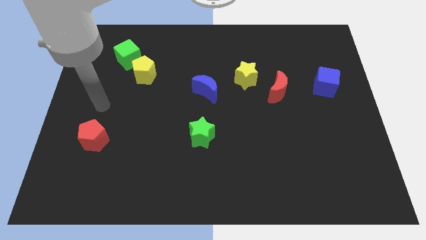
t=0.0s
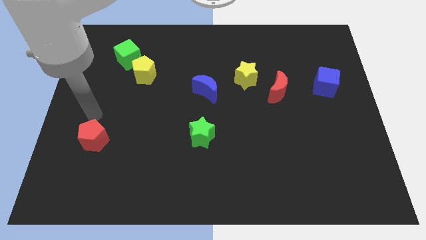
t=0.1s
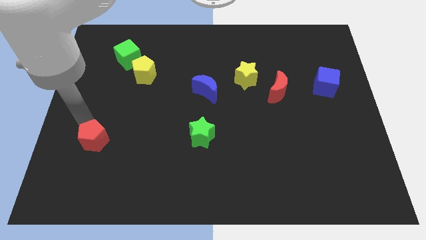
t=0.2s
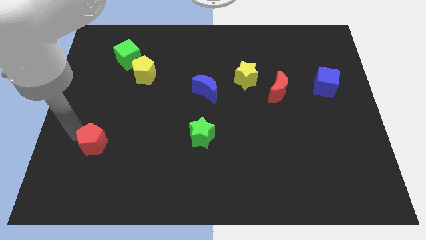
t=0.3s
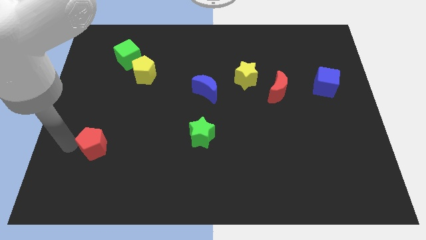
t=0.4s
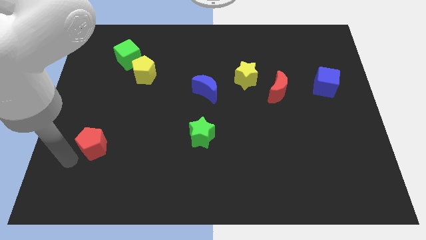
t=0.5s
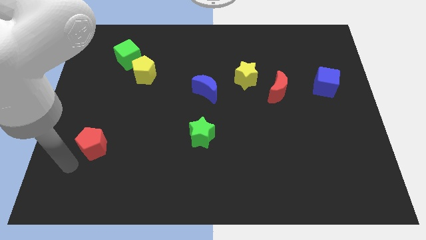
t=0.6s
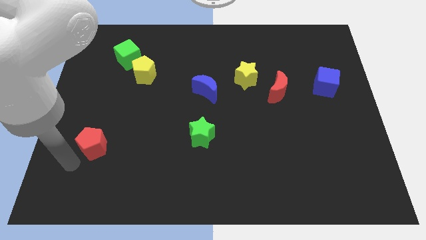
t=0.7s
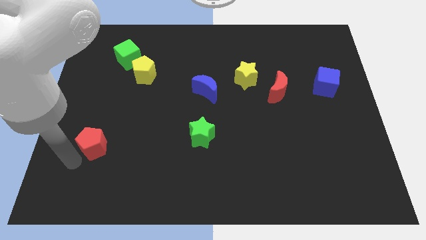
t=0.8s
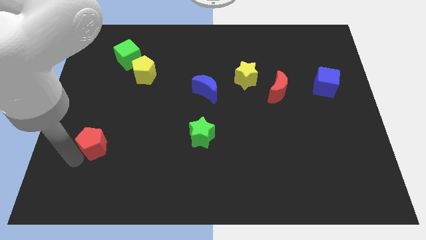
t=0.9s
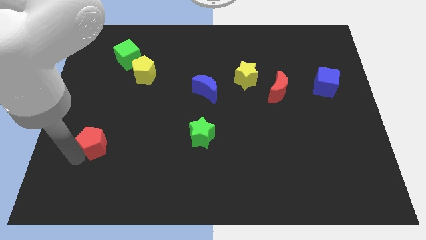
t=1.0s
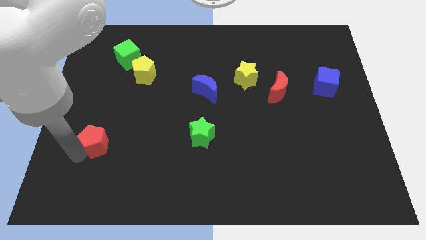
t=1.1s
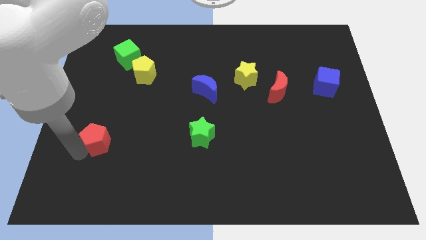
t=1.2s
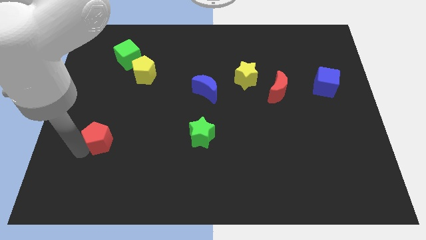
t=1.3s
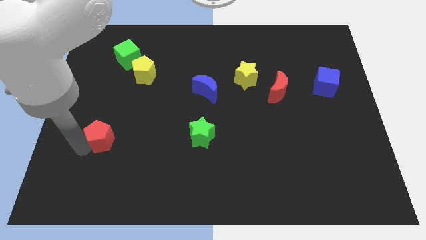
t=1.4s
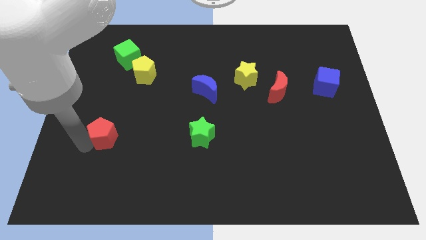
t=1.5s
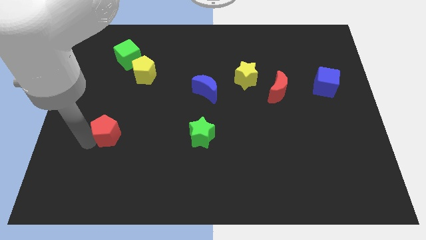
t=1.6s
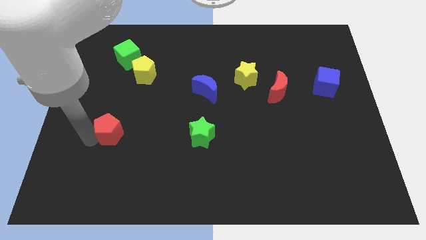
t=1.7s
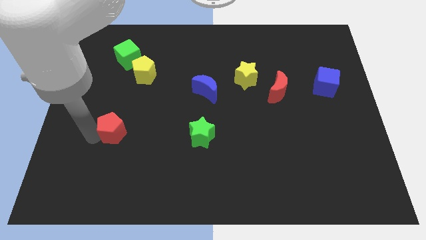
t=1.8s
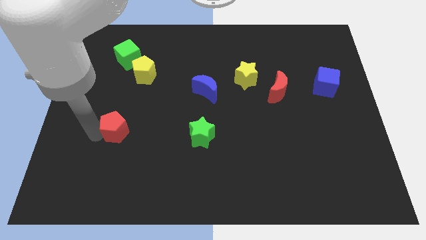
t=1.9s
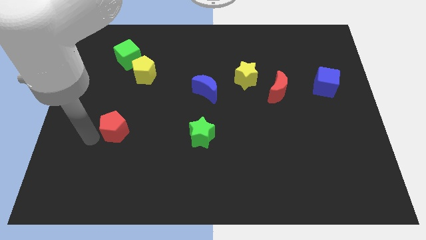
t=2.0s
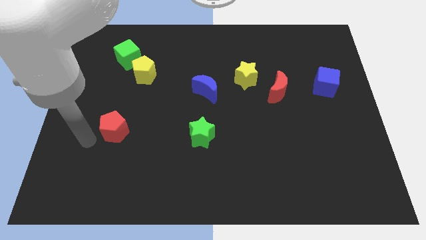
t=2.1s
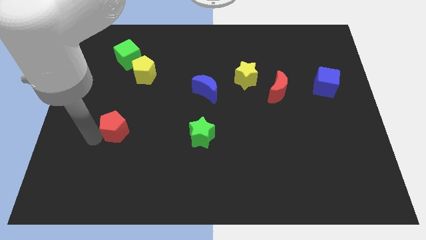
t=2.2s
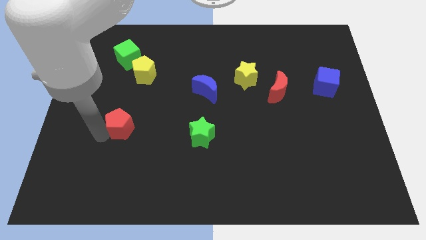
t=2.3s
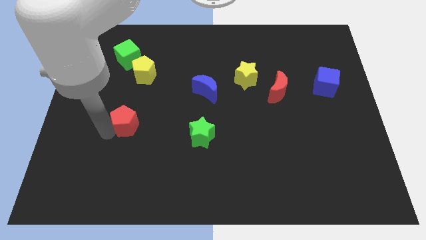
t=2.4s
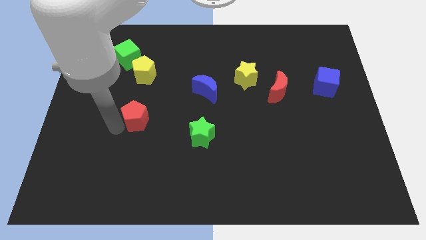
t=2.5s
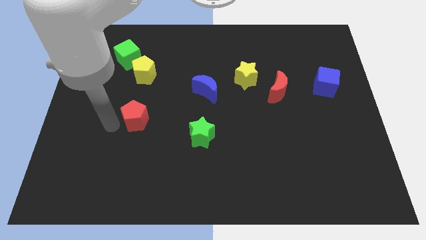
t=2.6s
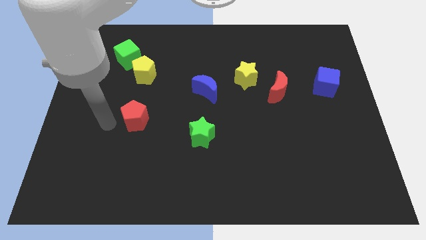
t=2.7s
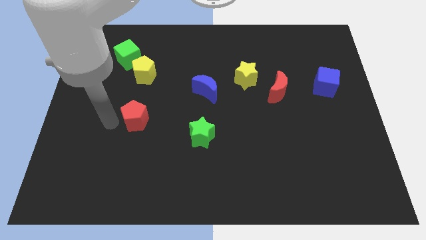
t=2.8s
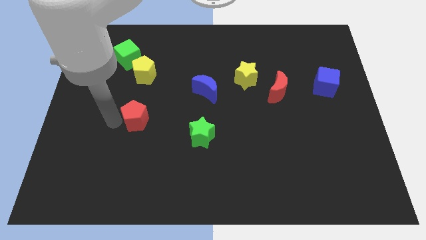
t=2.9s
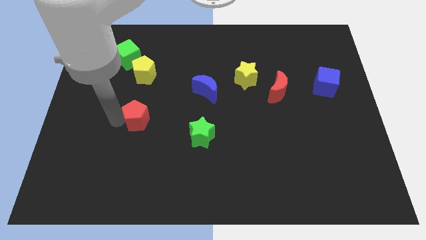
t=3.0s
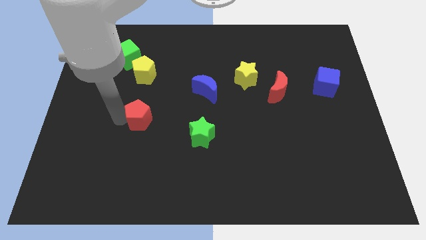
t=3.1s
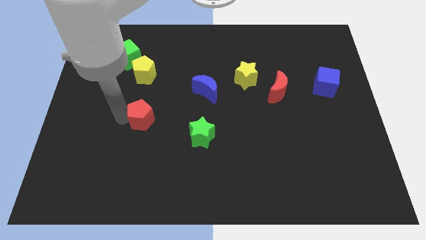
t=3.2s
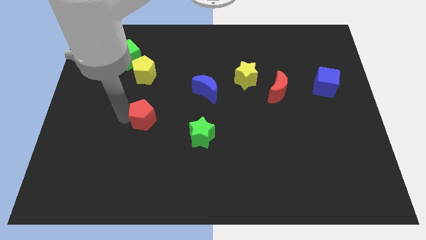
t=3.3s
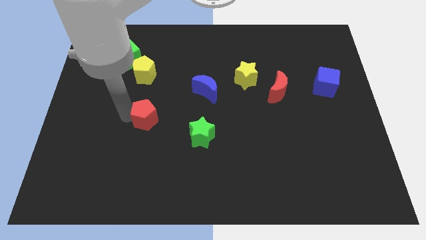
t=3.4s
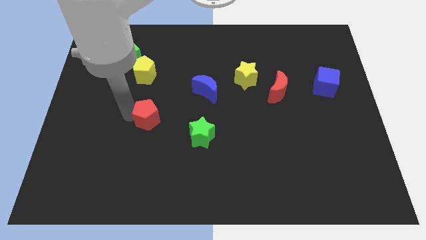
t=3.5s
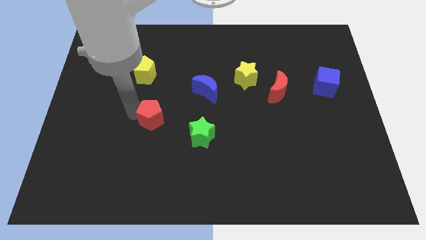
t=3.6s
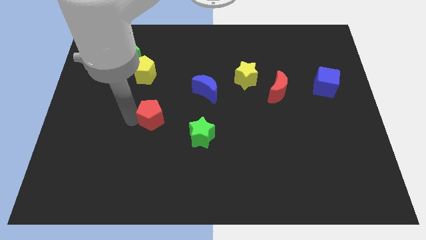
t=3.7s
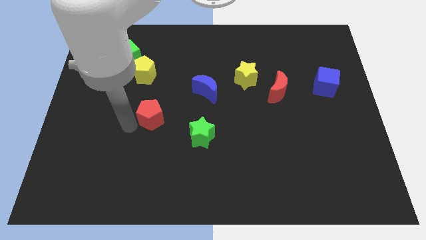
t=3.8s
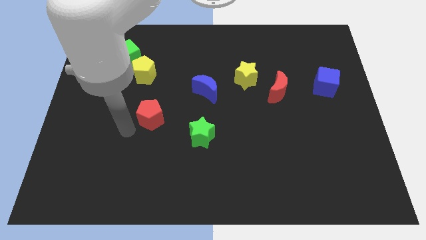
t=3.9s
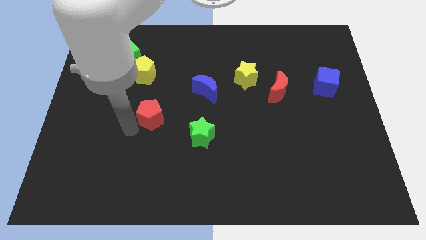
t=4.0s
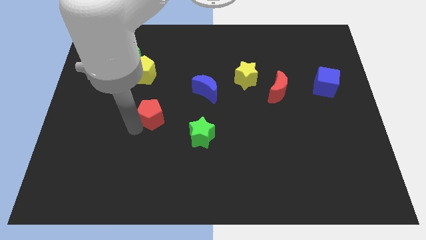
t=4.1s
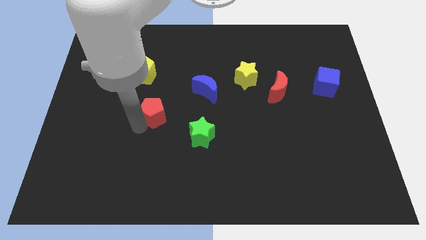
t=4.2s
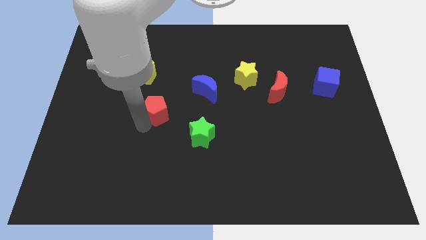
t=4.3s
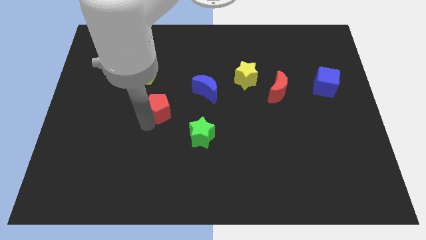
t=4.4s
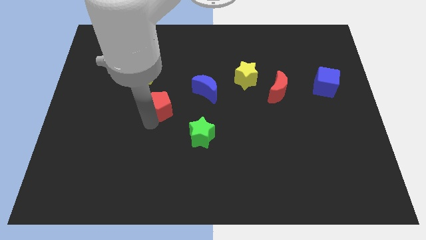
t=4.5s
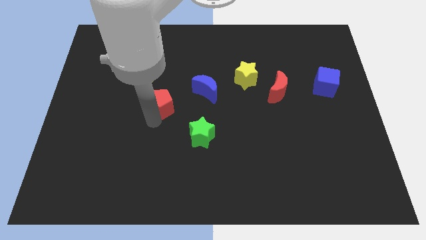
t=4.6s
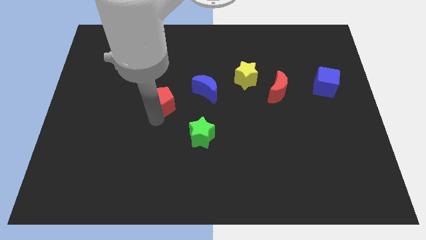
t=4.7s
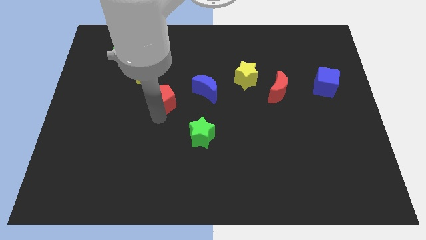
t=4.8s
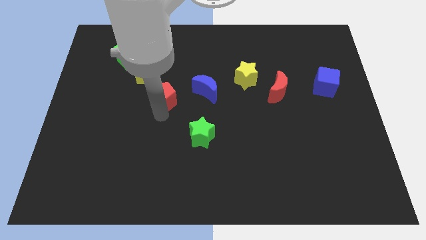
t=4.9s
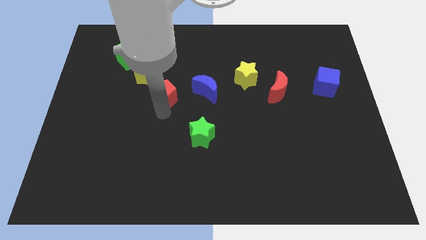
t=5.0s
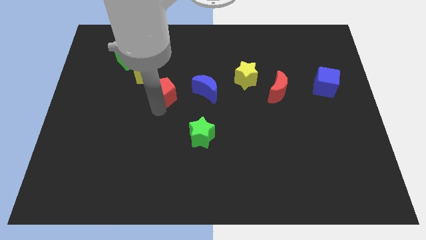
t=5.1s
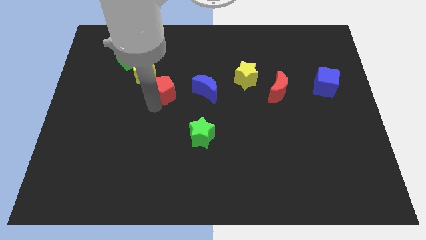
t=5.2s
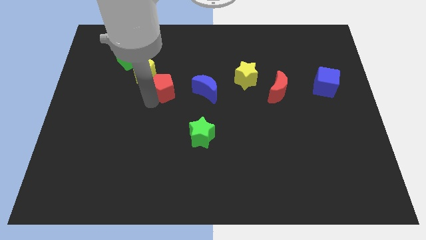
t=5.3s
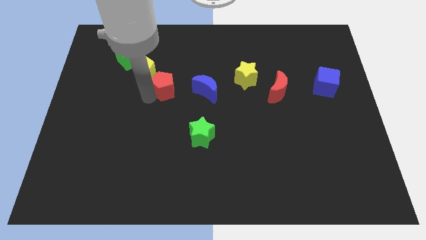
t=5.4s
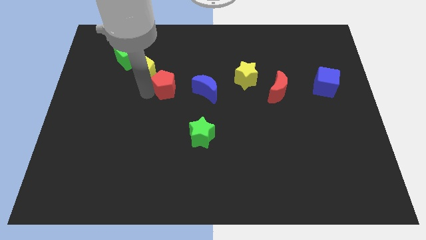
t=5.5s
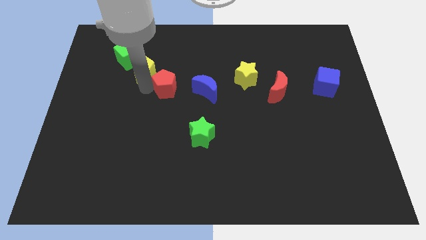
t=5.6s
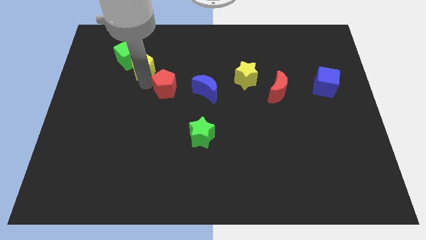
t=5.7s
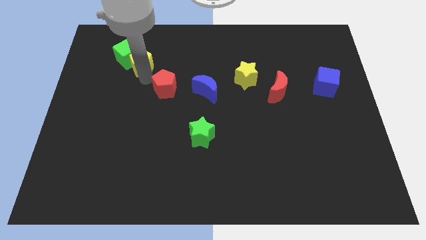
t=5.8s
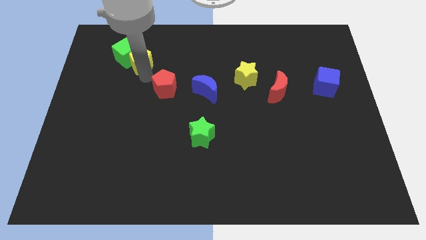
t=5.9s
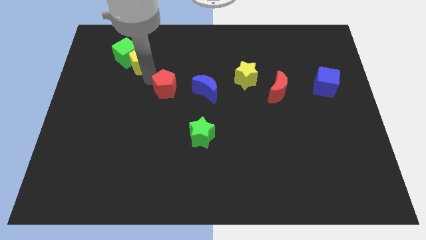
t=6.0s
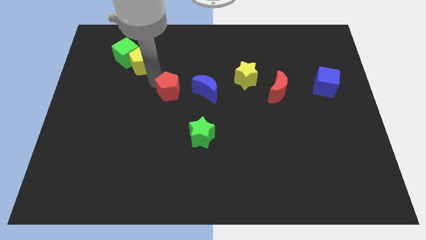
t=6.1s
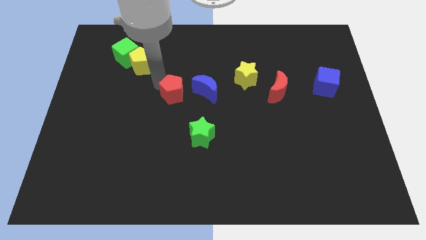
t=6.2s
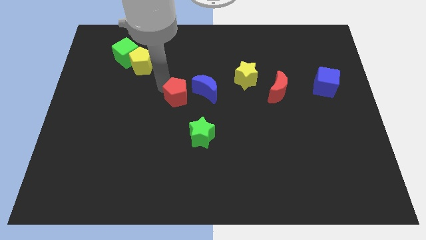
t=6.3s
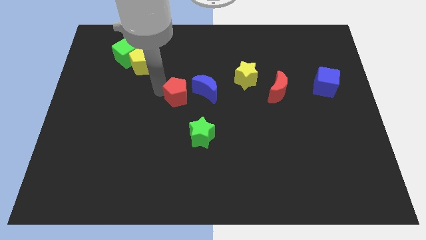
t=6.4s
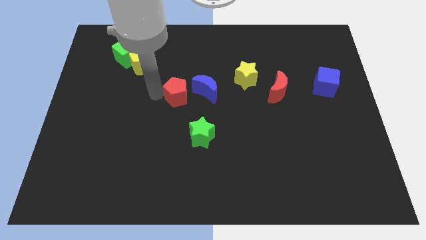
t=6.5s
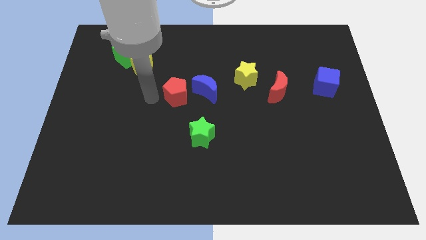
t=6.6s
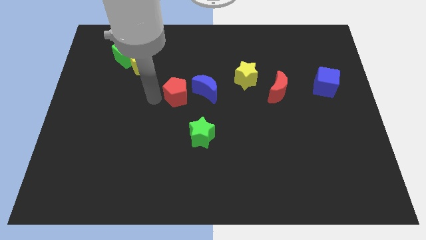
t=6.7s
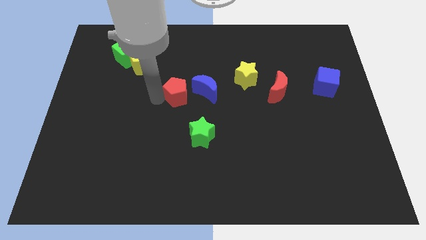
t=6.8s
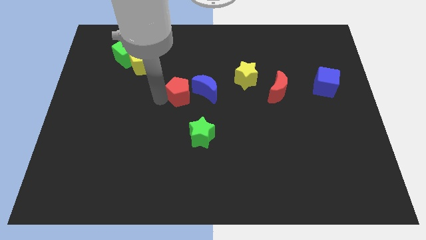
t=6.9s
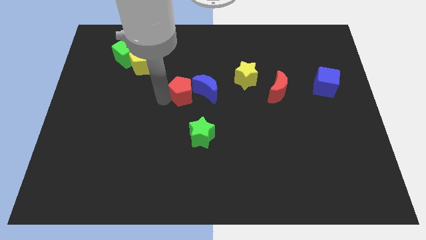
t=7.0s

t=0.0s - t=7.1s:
push the red pentagon to the blue moon

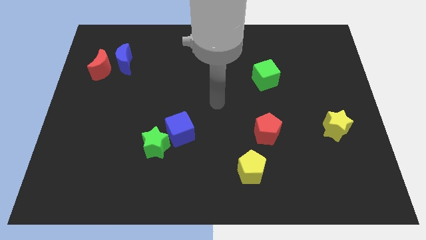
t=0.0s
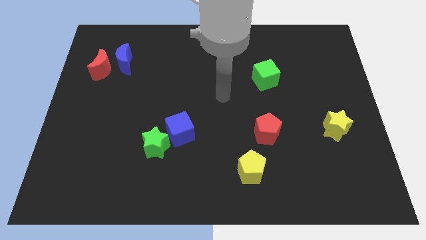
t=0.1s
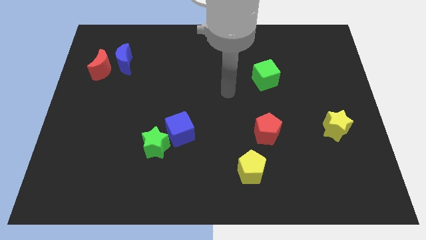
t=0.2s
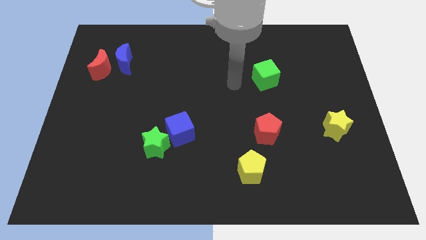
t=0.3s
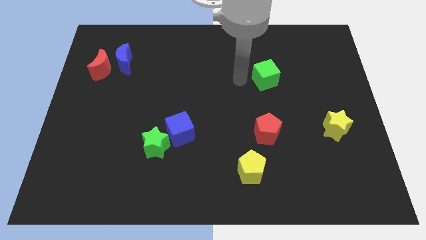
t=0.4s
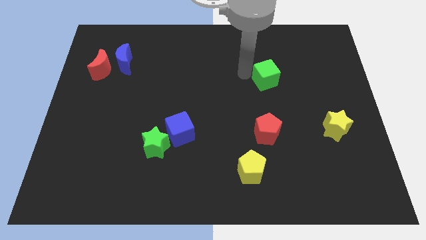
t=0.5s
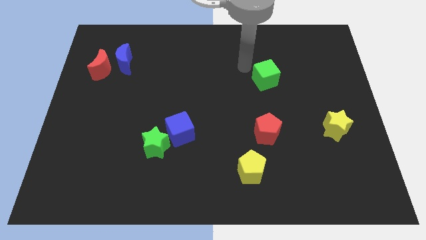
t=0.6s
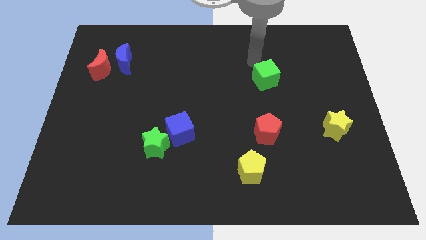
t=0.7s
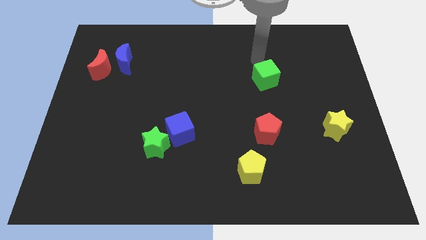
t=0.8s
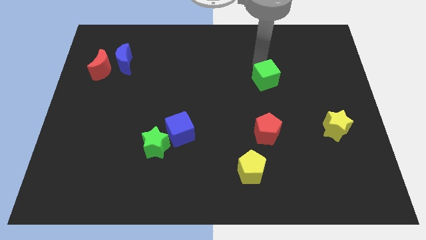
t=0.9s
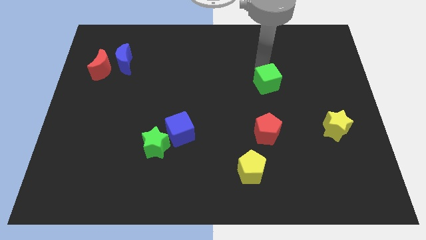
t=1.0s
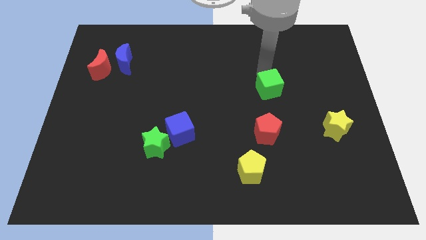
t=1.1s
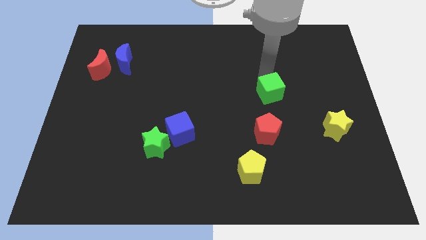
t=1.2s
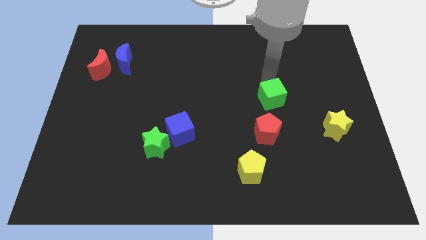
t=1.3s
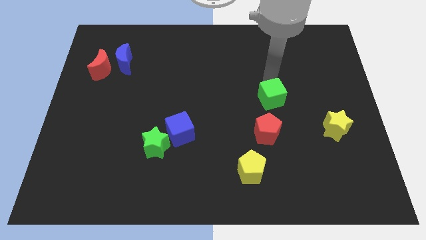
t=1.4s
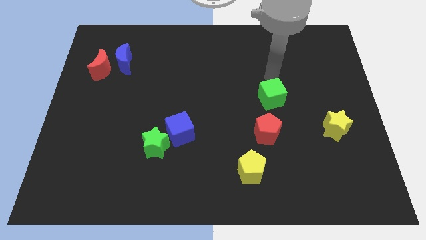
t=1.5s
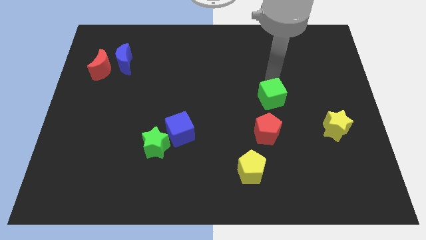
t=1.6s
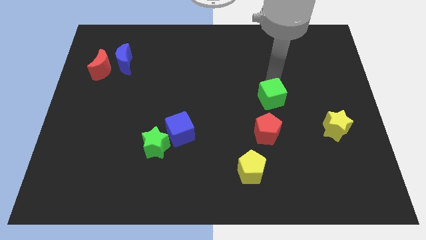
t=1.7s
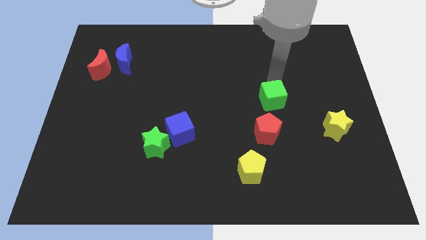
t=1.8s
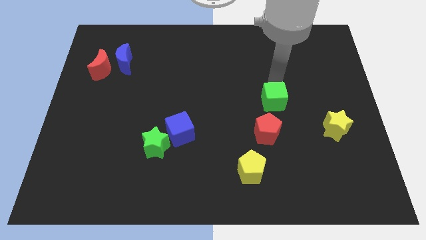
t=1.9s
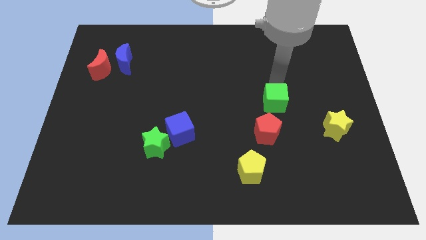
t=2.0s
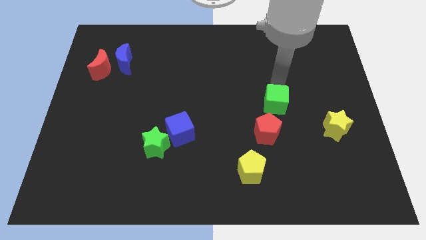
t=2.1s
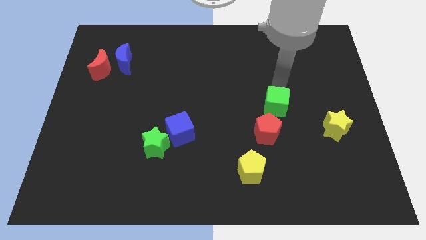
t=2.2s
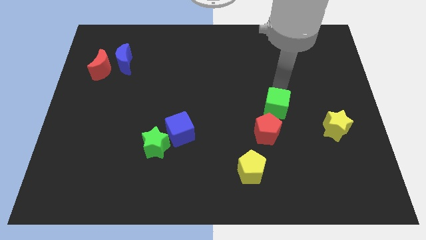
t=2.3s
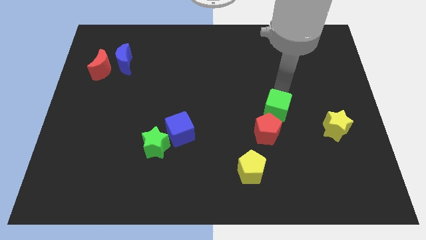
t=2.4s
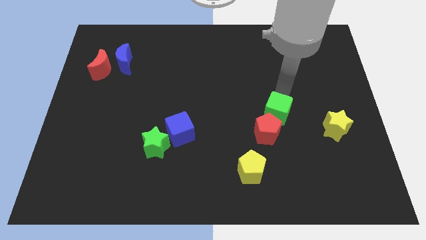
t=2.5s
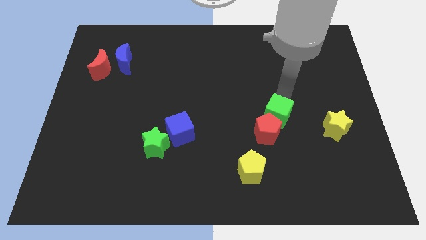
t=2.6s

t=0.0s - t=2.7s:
slide the green cube next to the red pentagon
